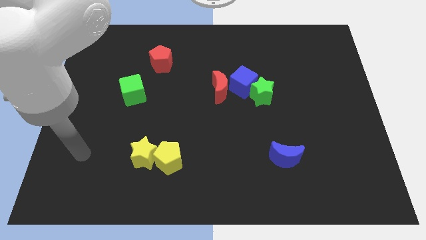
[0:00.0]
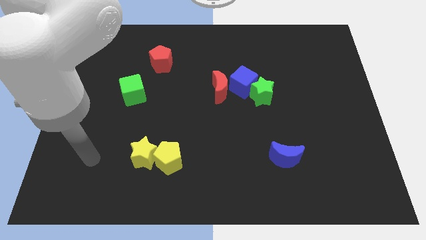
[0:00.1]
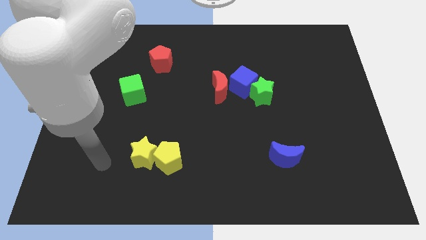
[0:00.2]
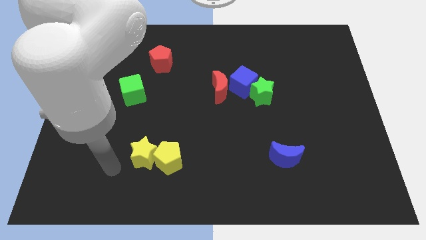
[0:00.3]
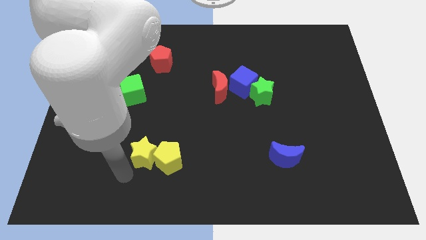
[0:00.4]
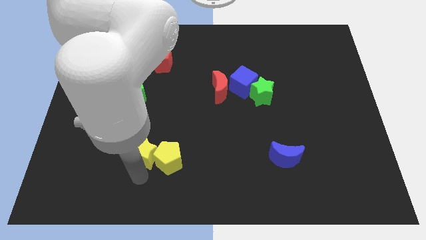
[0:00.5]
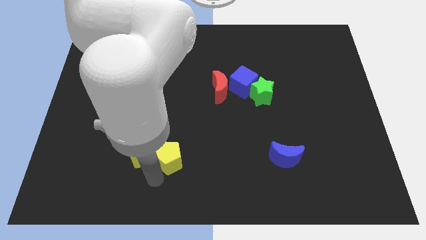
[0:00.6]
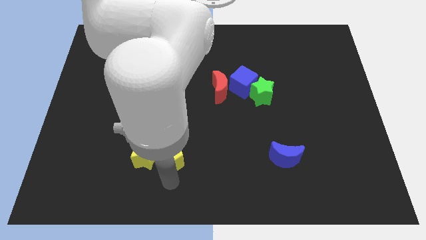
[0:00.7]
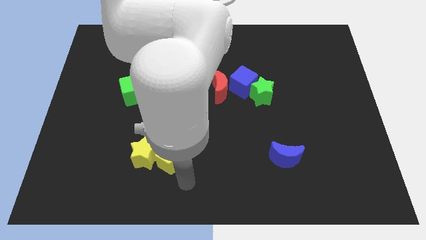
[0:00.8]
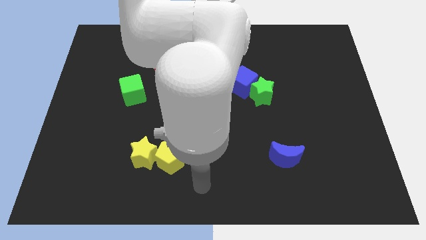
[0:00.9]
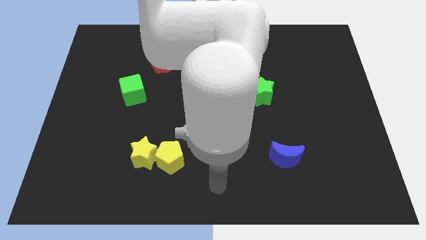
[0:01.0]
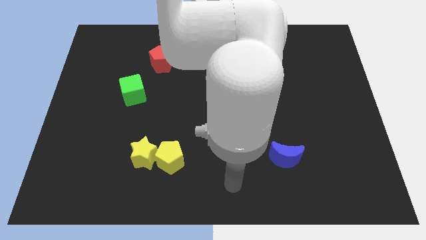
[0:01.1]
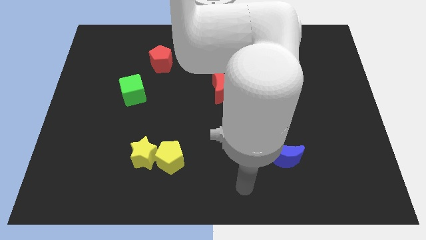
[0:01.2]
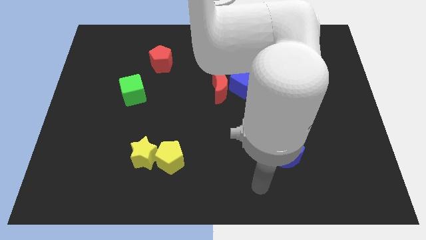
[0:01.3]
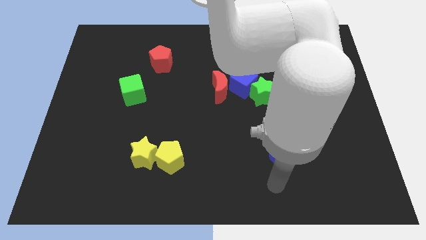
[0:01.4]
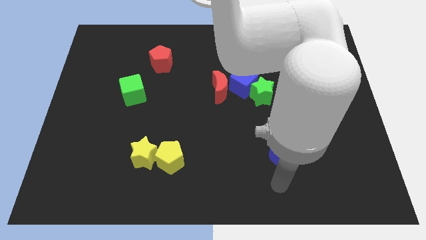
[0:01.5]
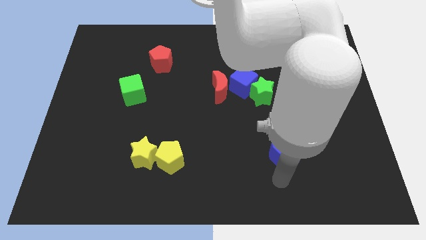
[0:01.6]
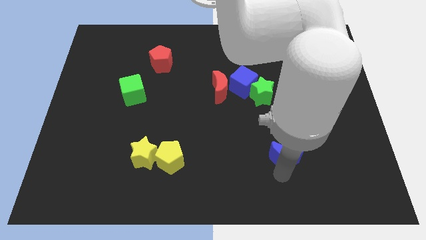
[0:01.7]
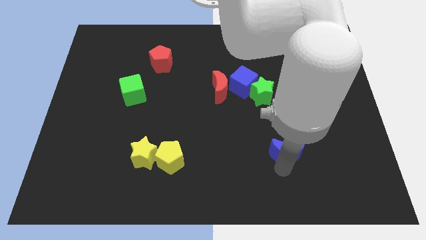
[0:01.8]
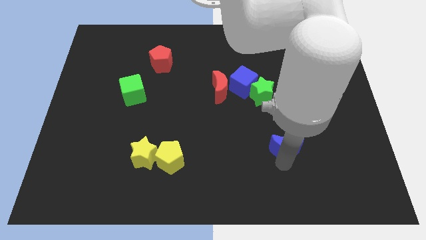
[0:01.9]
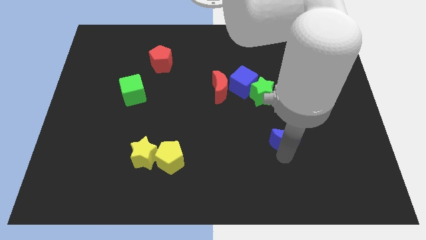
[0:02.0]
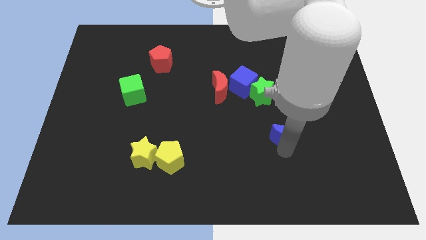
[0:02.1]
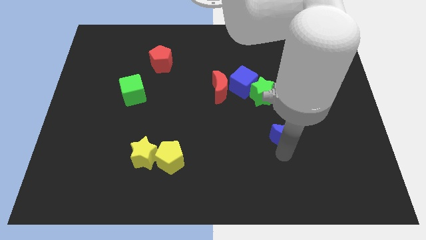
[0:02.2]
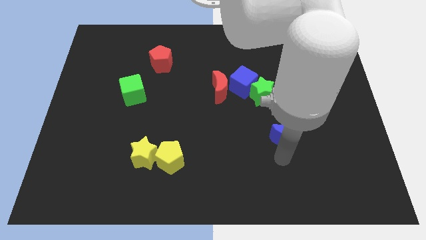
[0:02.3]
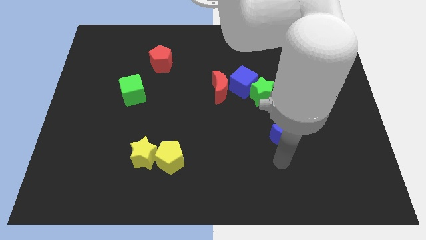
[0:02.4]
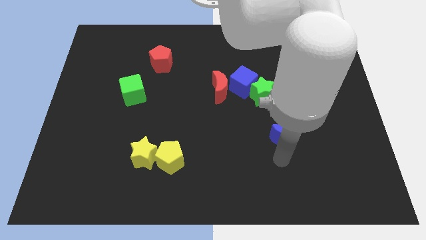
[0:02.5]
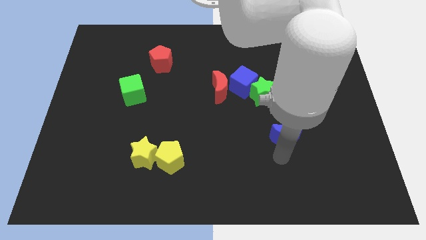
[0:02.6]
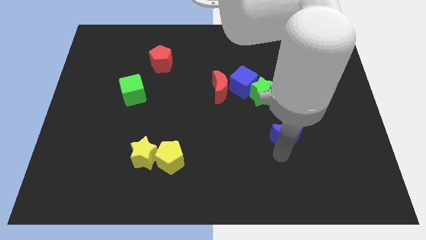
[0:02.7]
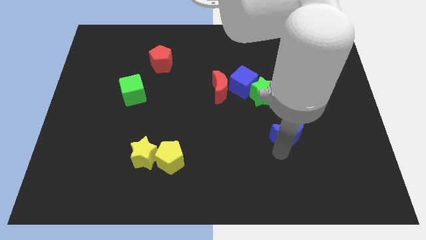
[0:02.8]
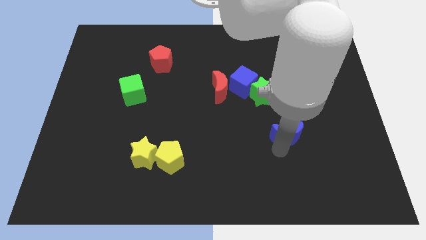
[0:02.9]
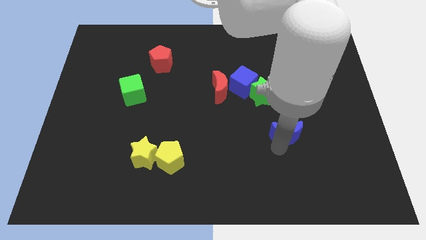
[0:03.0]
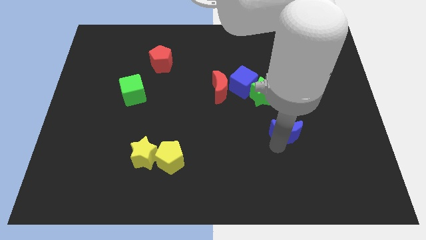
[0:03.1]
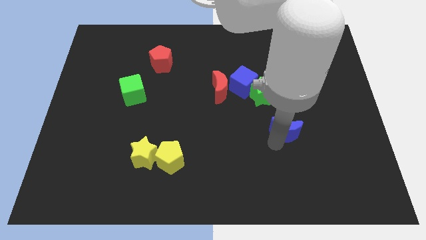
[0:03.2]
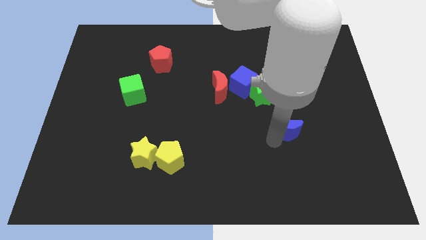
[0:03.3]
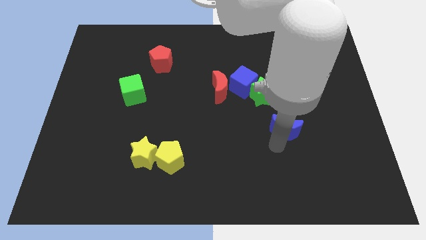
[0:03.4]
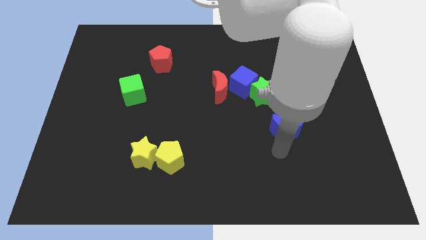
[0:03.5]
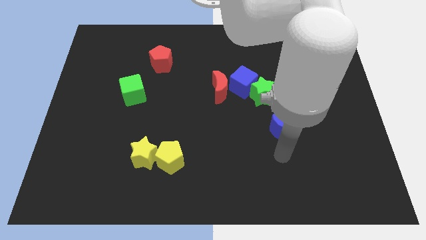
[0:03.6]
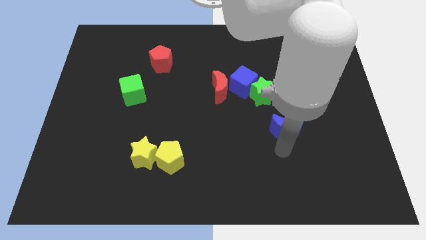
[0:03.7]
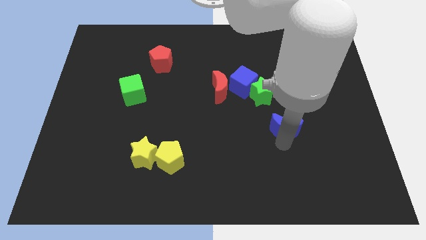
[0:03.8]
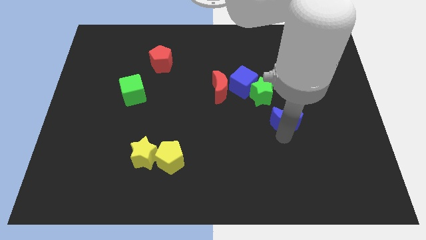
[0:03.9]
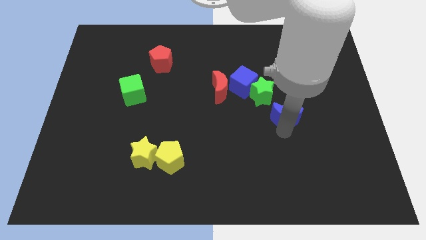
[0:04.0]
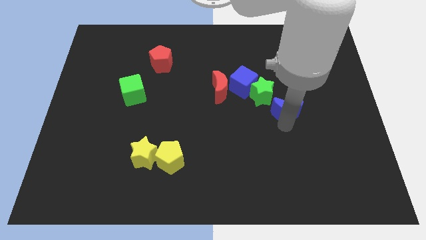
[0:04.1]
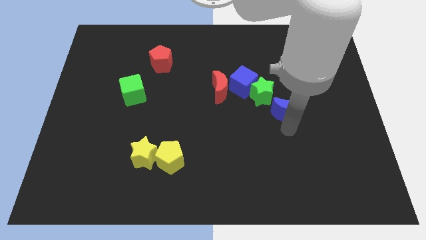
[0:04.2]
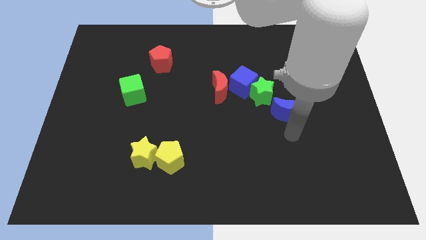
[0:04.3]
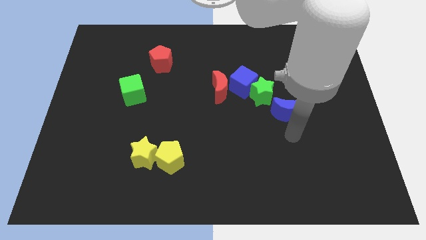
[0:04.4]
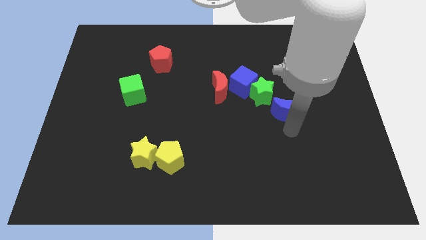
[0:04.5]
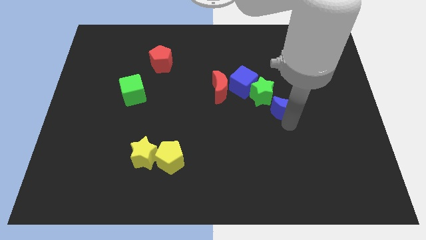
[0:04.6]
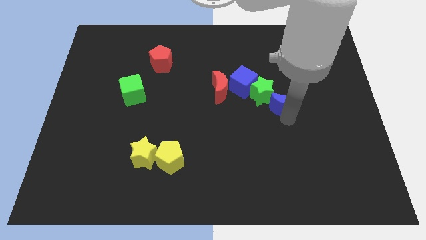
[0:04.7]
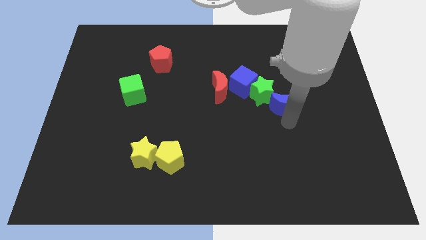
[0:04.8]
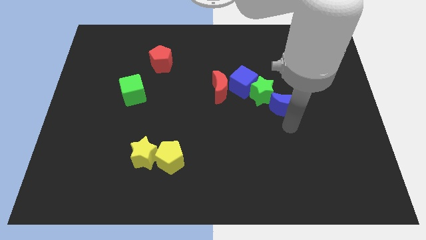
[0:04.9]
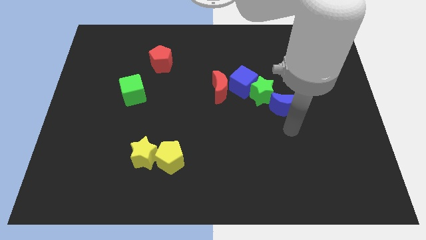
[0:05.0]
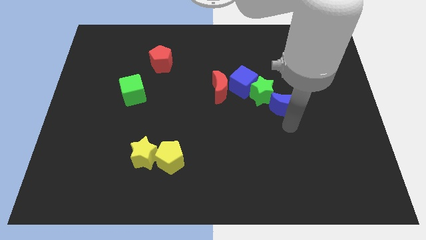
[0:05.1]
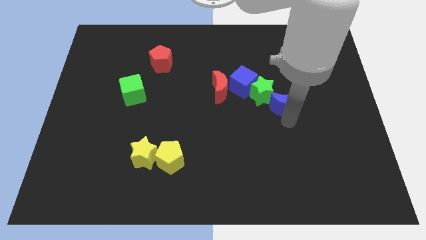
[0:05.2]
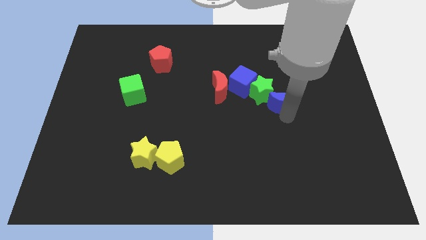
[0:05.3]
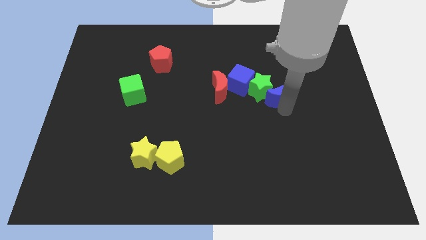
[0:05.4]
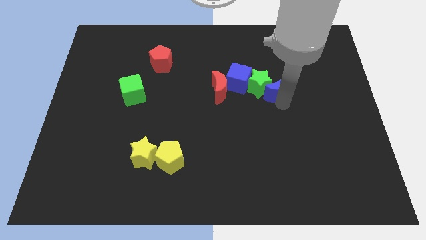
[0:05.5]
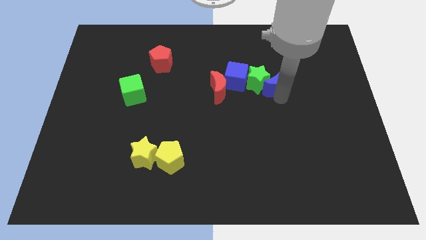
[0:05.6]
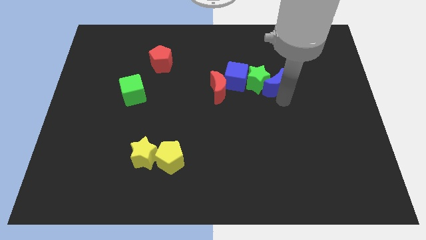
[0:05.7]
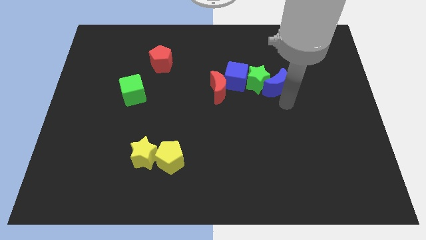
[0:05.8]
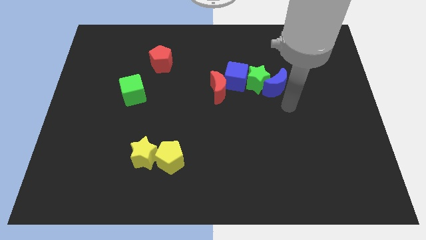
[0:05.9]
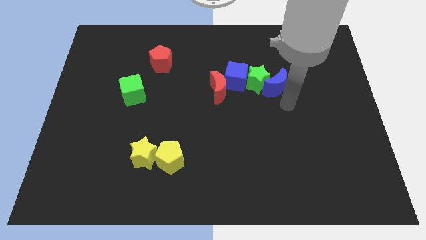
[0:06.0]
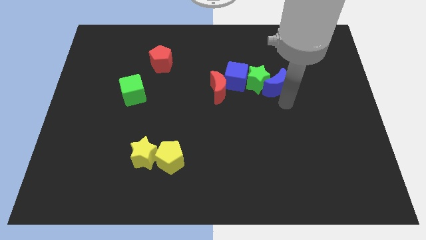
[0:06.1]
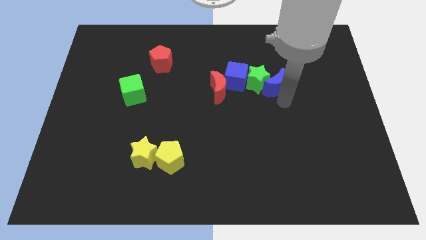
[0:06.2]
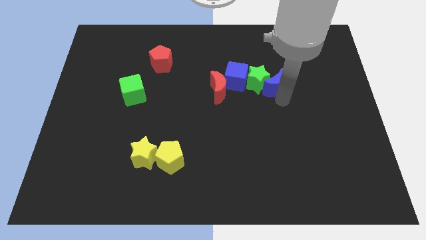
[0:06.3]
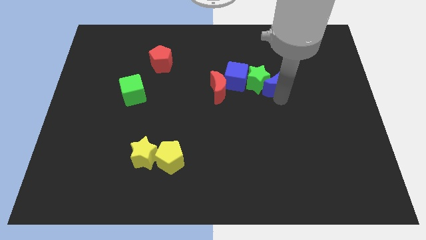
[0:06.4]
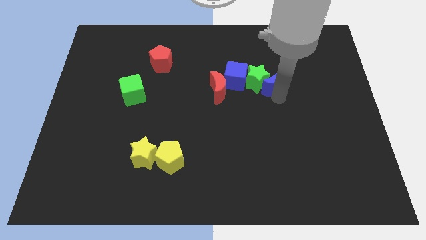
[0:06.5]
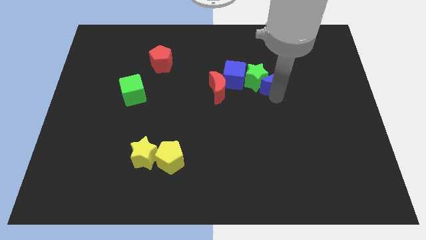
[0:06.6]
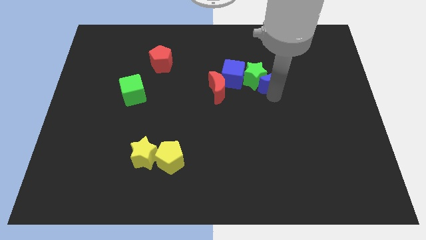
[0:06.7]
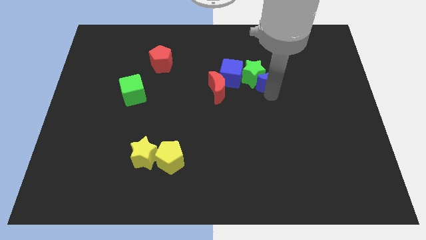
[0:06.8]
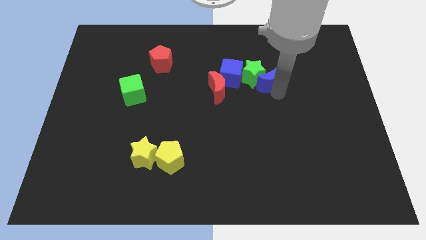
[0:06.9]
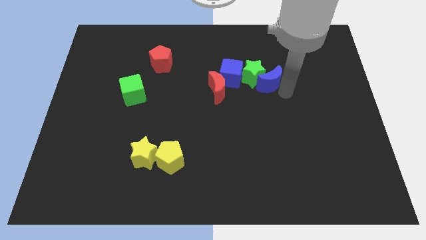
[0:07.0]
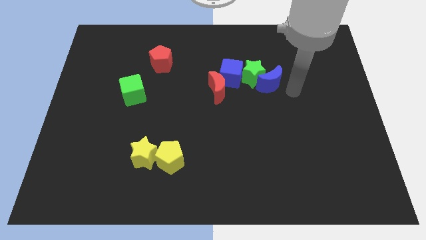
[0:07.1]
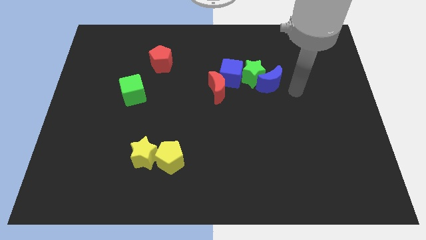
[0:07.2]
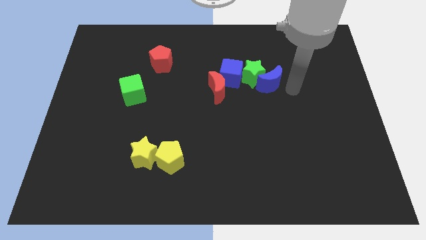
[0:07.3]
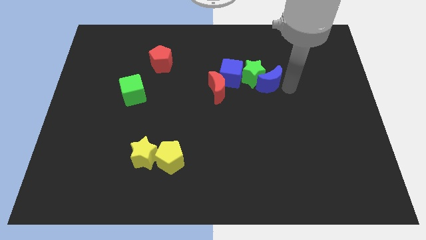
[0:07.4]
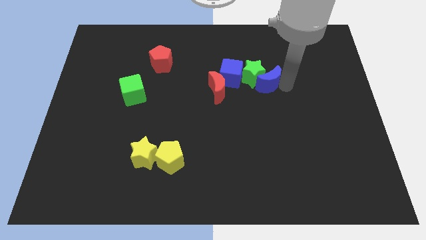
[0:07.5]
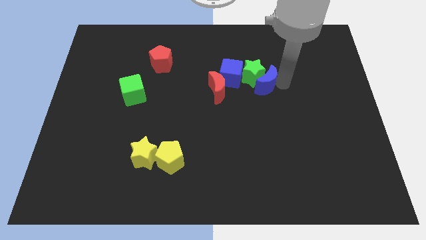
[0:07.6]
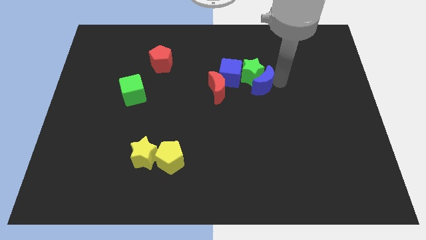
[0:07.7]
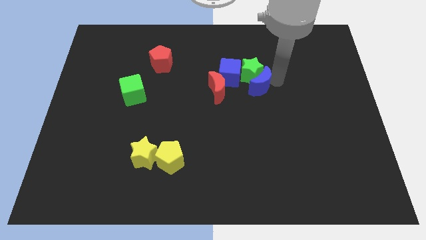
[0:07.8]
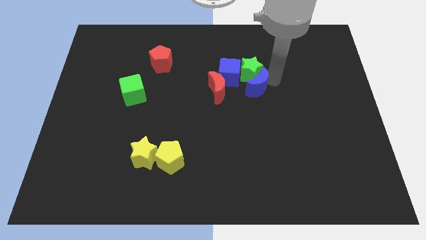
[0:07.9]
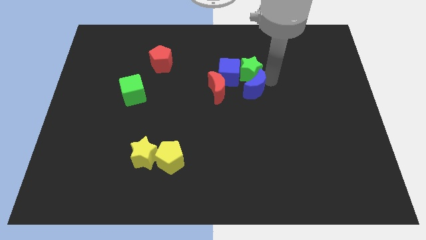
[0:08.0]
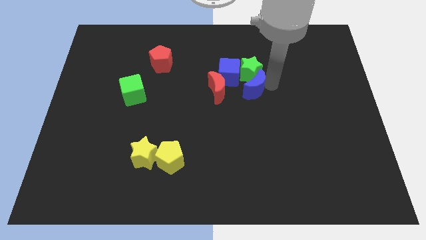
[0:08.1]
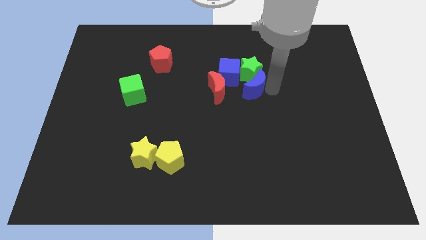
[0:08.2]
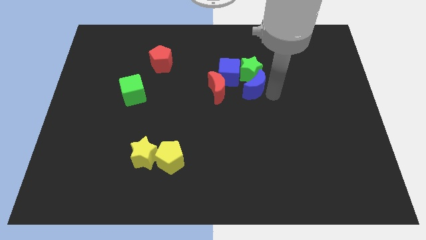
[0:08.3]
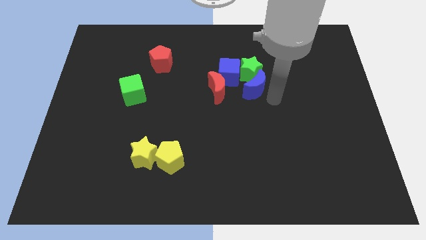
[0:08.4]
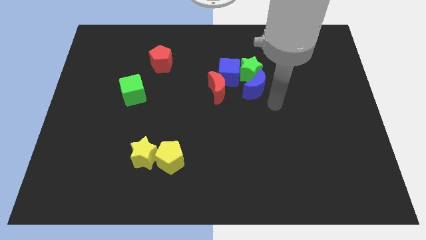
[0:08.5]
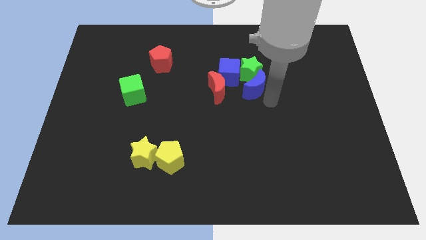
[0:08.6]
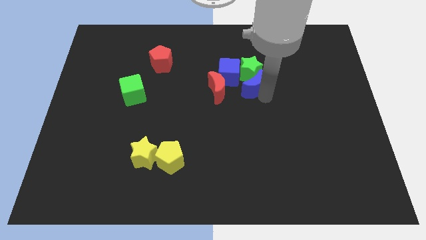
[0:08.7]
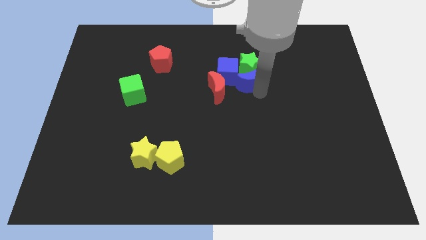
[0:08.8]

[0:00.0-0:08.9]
move the blue moon diagonally up and to the right of the red moon
